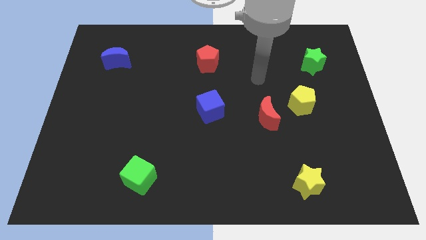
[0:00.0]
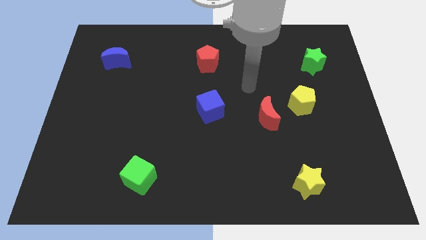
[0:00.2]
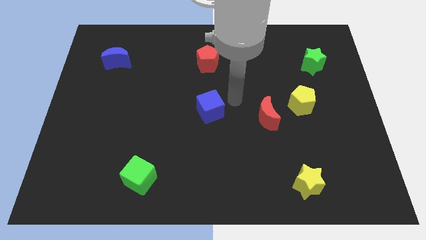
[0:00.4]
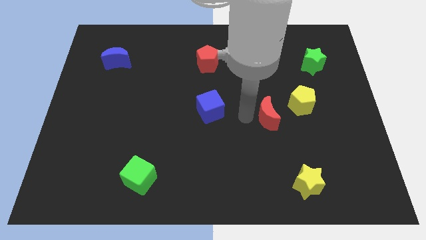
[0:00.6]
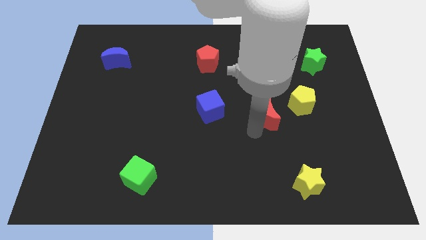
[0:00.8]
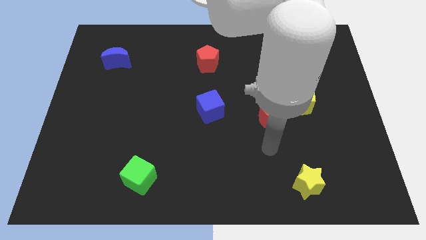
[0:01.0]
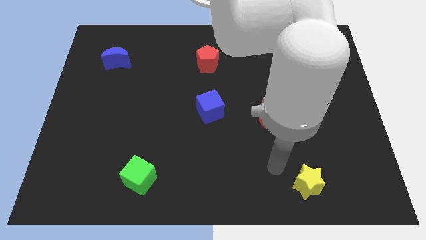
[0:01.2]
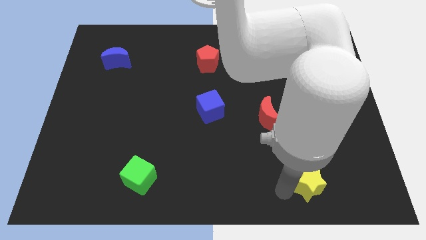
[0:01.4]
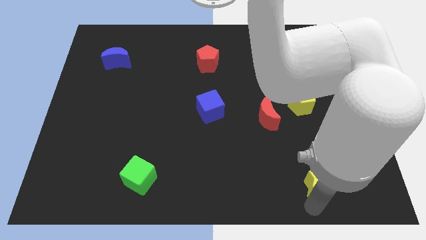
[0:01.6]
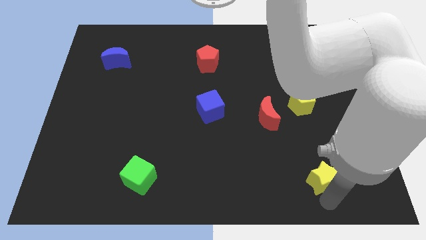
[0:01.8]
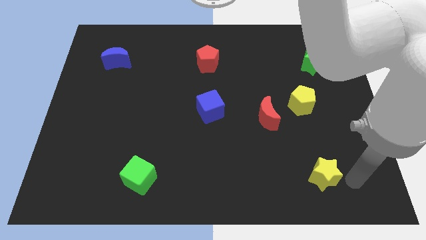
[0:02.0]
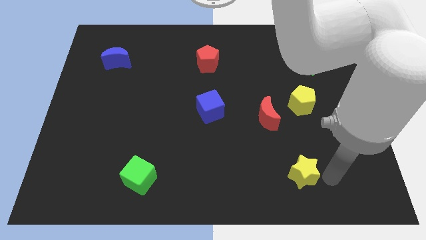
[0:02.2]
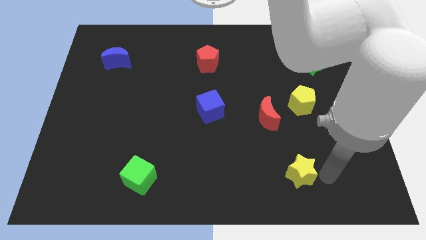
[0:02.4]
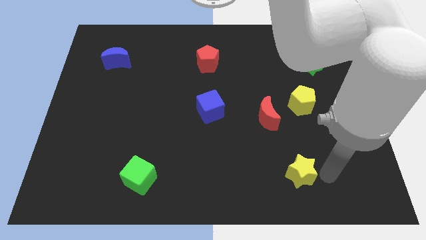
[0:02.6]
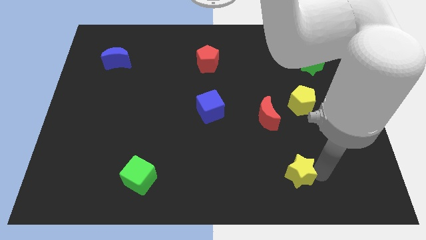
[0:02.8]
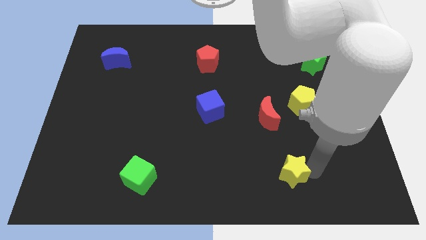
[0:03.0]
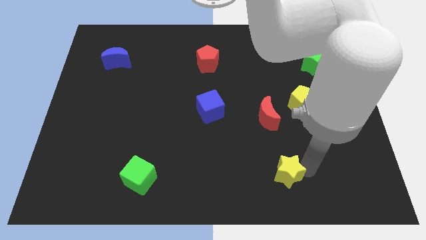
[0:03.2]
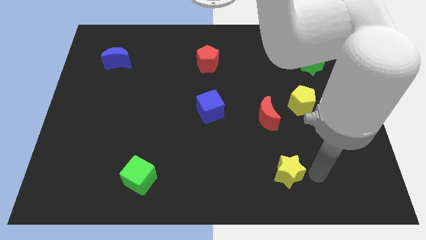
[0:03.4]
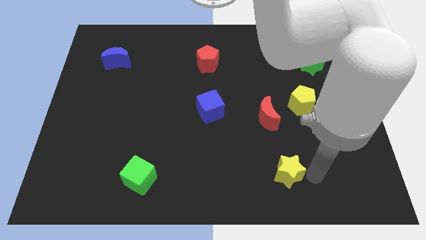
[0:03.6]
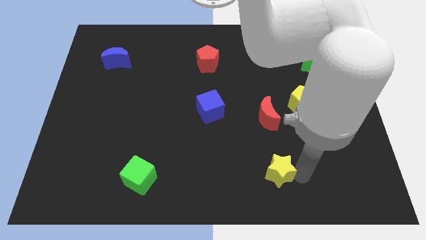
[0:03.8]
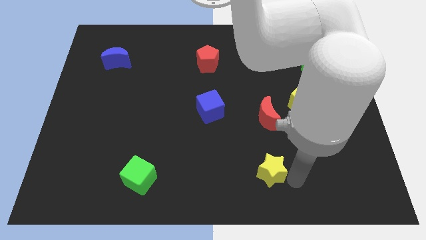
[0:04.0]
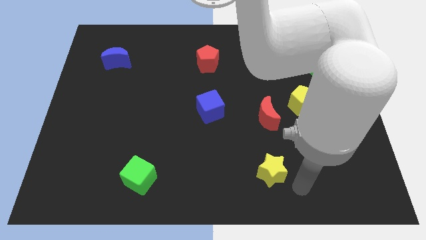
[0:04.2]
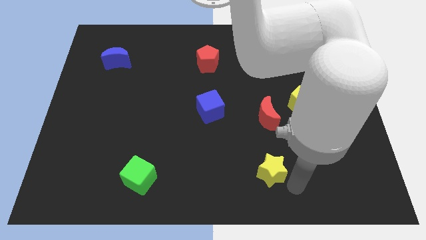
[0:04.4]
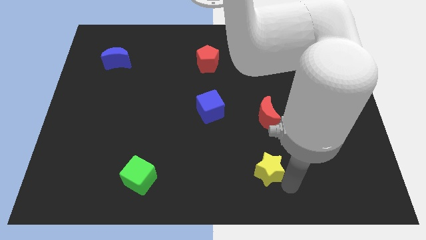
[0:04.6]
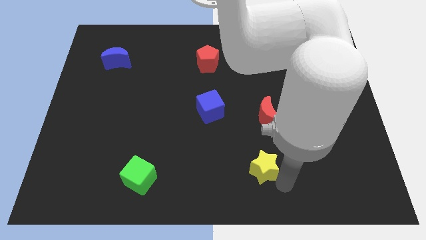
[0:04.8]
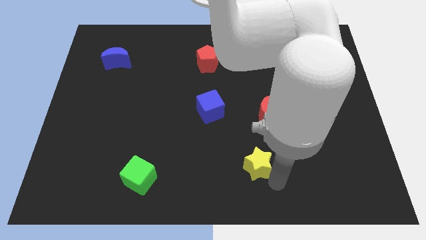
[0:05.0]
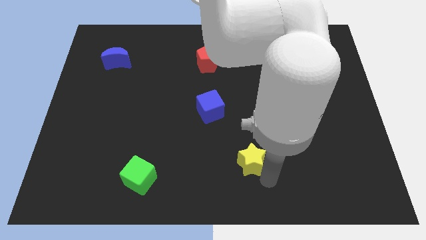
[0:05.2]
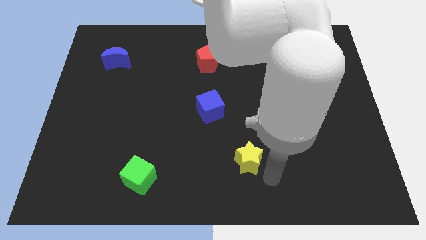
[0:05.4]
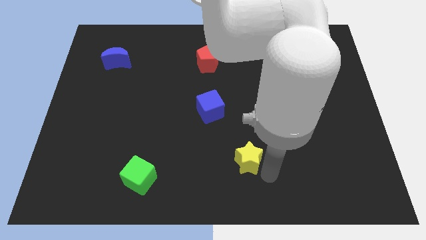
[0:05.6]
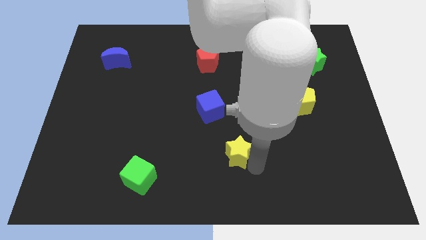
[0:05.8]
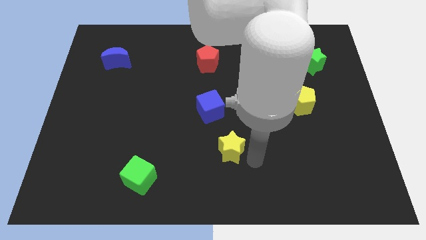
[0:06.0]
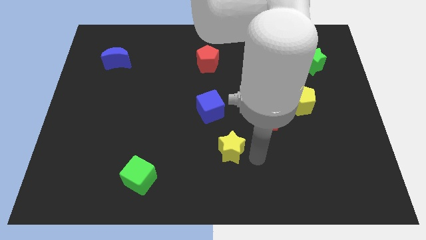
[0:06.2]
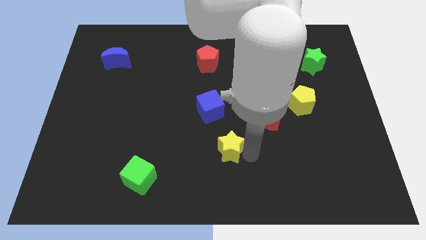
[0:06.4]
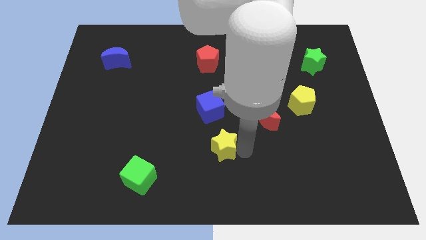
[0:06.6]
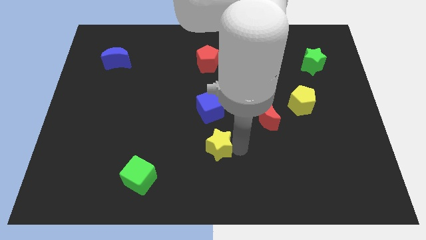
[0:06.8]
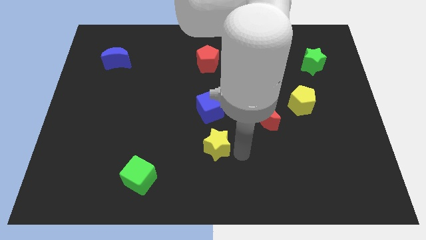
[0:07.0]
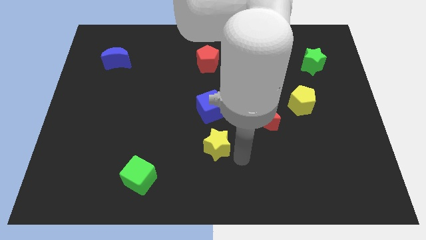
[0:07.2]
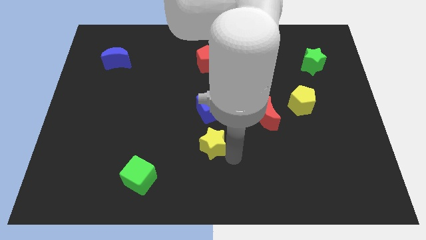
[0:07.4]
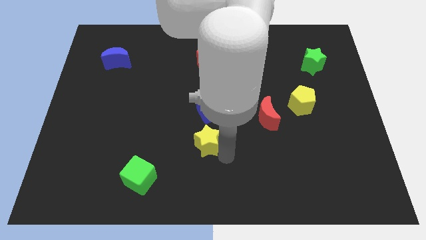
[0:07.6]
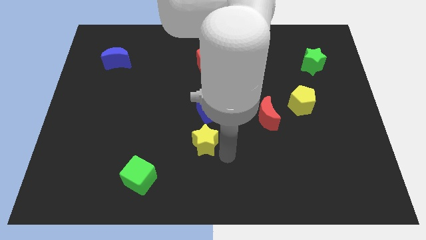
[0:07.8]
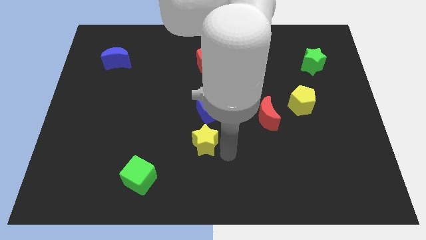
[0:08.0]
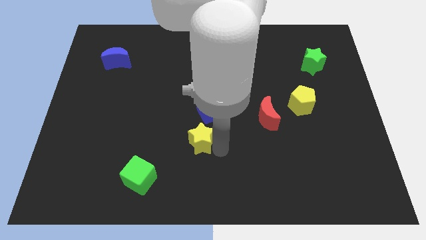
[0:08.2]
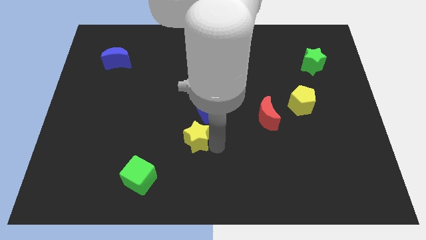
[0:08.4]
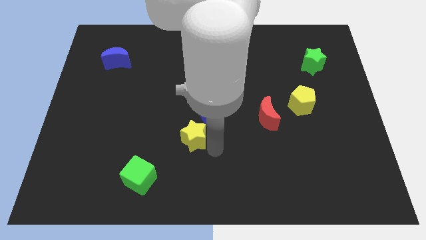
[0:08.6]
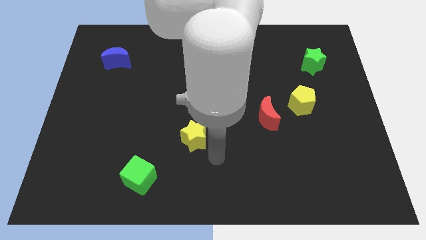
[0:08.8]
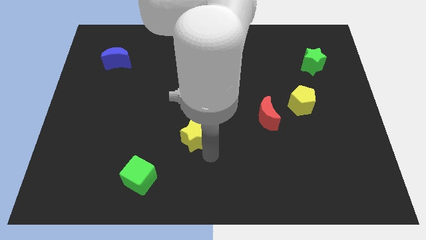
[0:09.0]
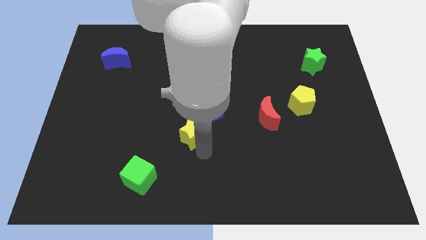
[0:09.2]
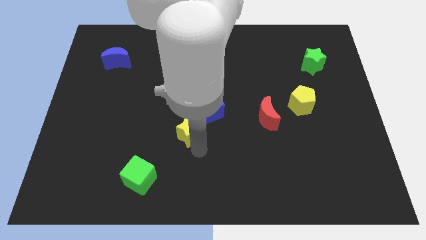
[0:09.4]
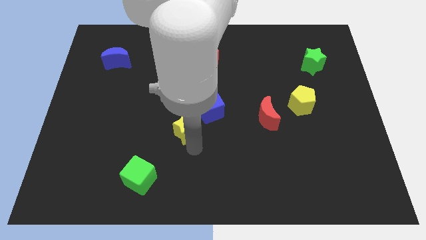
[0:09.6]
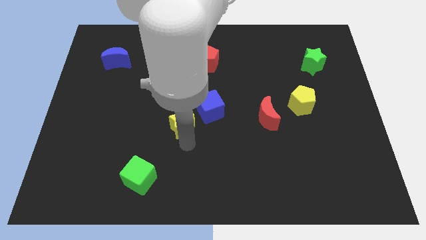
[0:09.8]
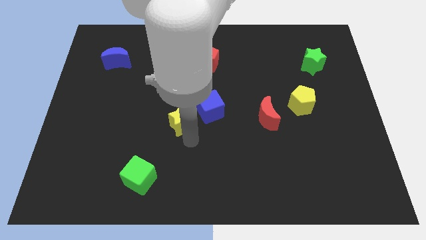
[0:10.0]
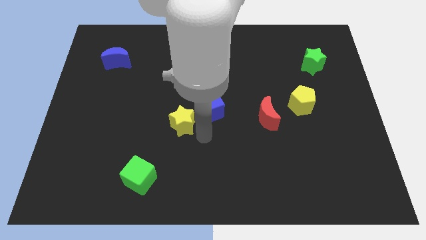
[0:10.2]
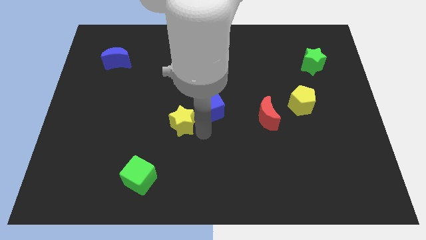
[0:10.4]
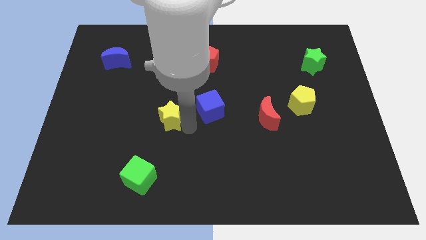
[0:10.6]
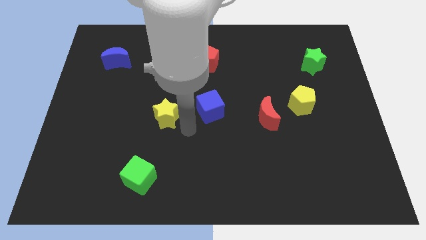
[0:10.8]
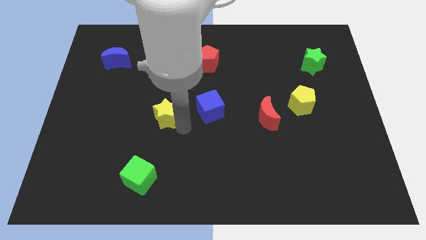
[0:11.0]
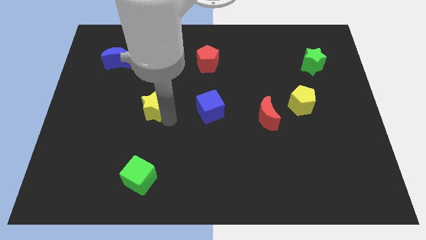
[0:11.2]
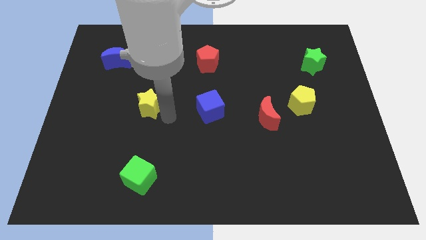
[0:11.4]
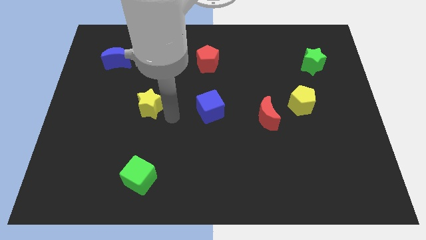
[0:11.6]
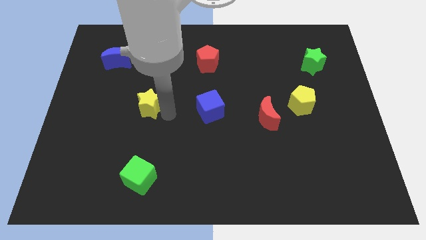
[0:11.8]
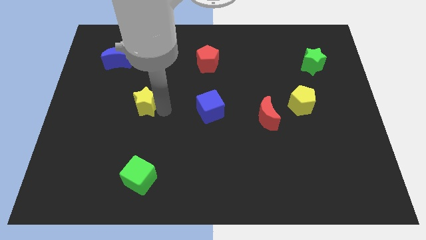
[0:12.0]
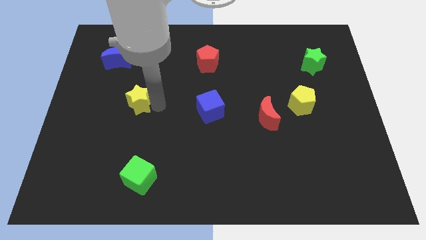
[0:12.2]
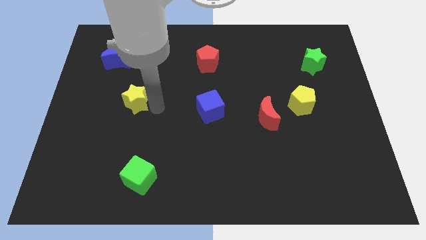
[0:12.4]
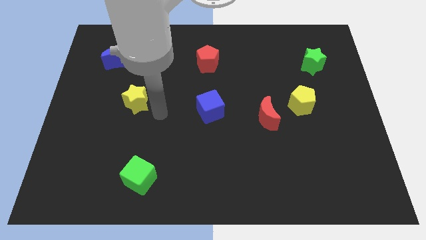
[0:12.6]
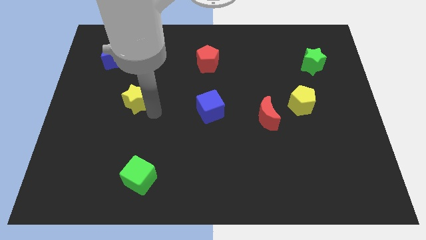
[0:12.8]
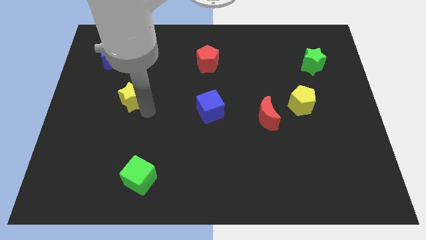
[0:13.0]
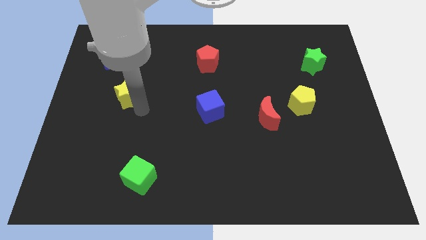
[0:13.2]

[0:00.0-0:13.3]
slide the yellow star below the blue moon

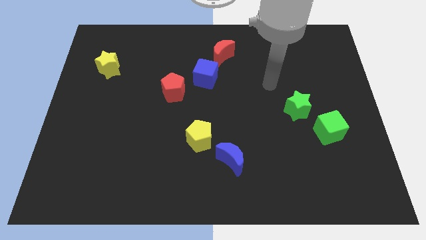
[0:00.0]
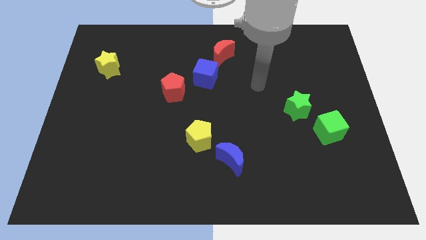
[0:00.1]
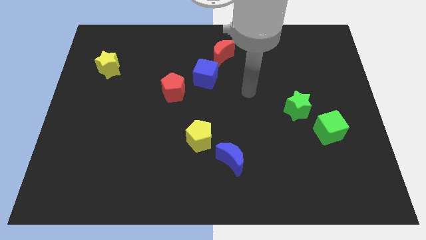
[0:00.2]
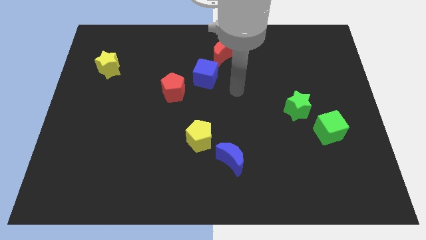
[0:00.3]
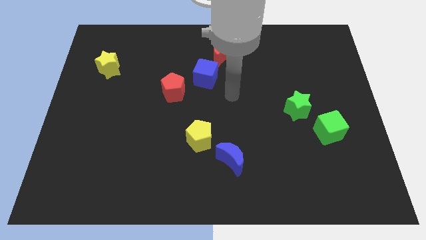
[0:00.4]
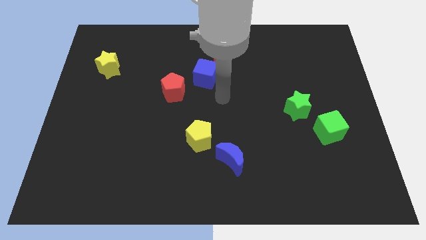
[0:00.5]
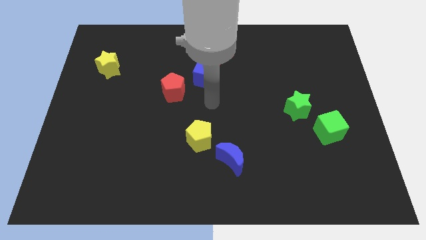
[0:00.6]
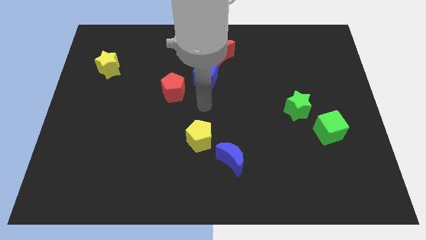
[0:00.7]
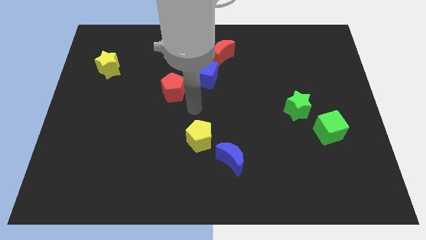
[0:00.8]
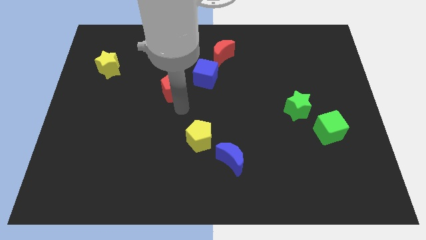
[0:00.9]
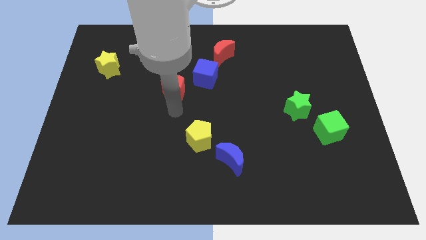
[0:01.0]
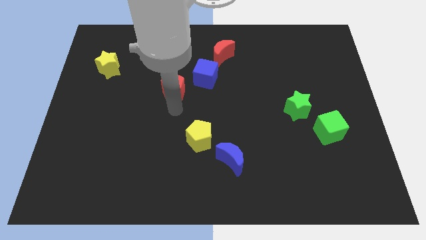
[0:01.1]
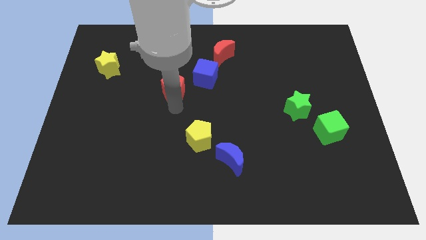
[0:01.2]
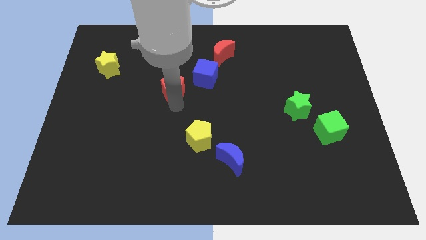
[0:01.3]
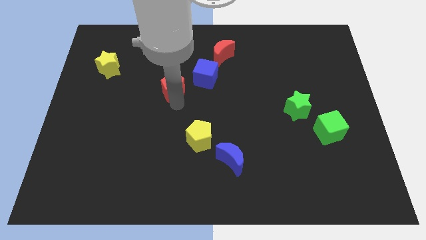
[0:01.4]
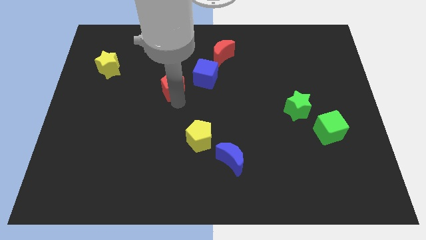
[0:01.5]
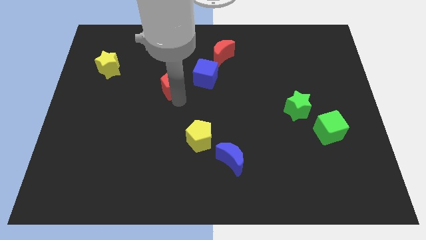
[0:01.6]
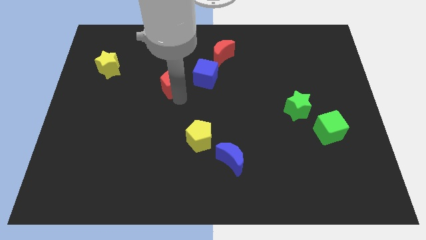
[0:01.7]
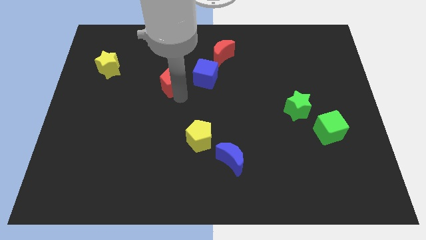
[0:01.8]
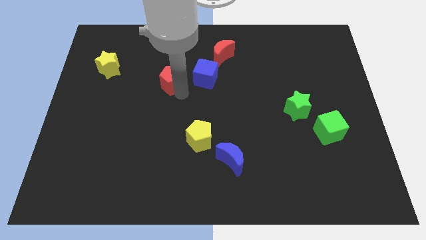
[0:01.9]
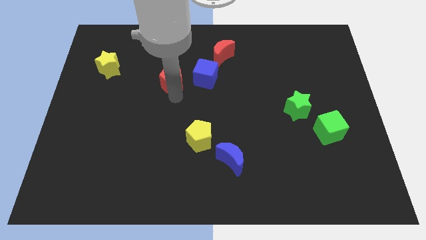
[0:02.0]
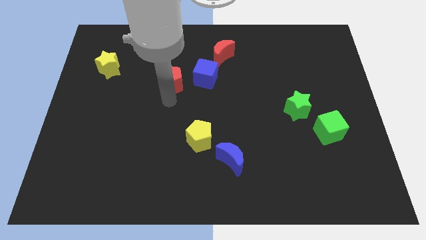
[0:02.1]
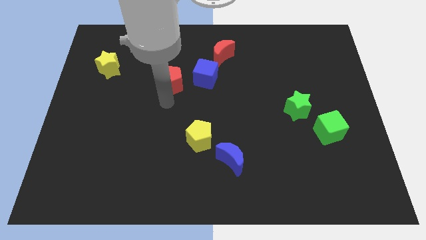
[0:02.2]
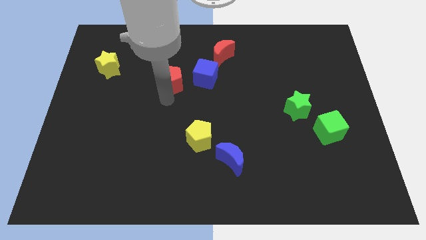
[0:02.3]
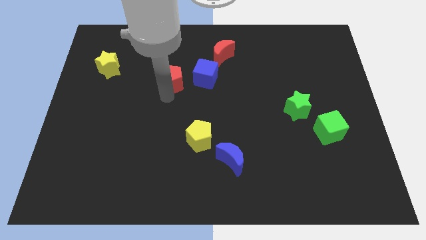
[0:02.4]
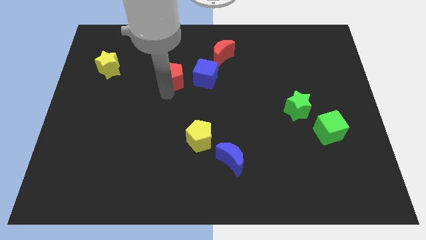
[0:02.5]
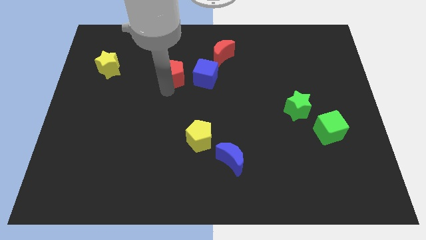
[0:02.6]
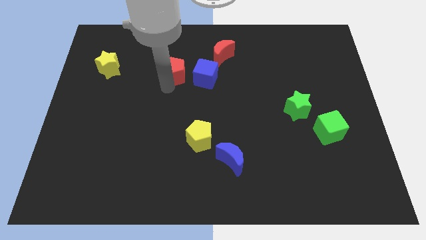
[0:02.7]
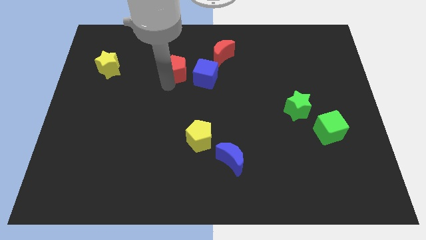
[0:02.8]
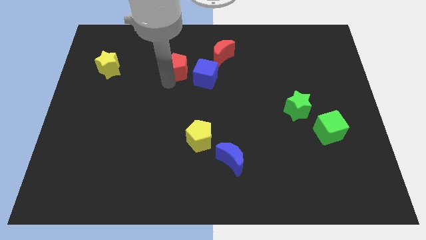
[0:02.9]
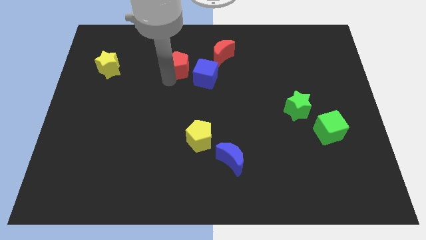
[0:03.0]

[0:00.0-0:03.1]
slide the red pentagon just left of the red moon
